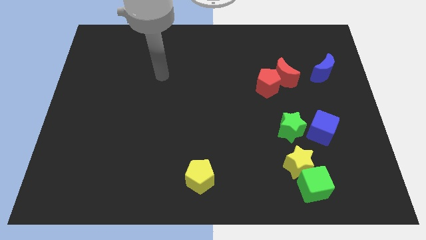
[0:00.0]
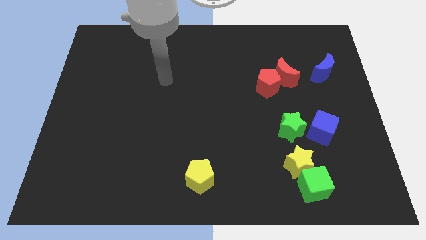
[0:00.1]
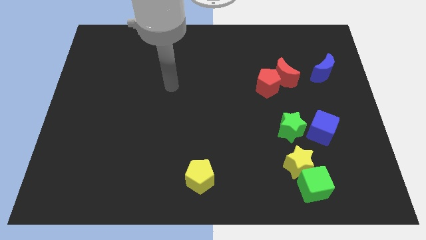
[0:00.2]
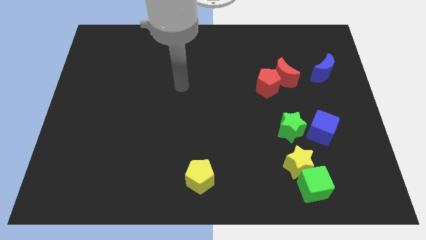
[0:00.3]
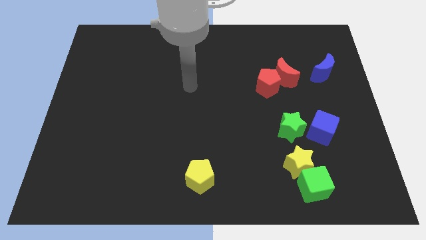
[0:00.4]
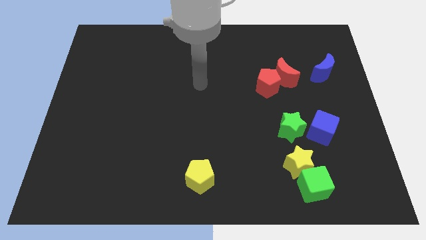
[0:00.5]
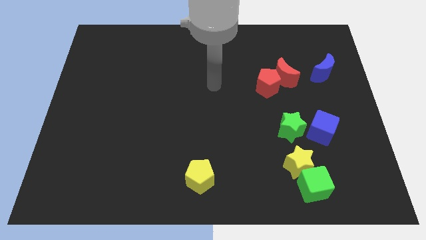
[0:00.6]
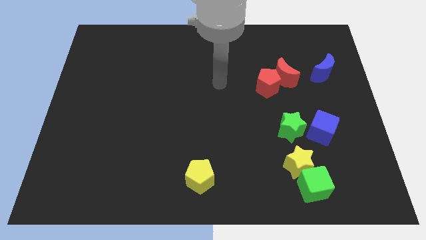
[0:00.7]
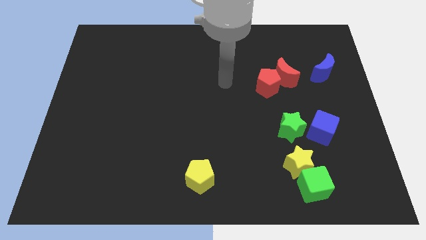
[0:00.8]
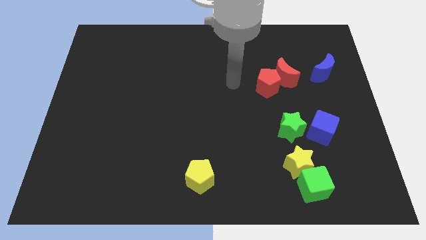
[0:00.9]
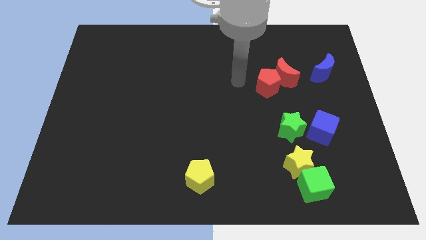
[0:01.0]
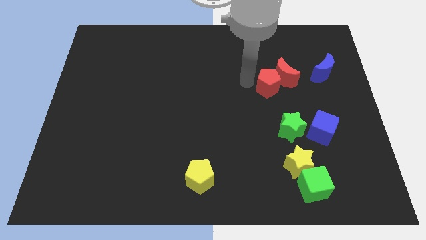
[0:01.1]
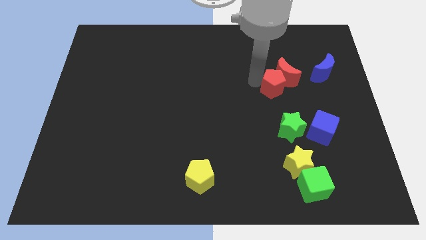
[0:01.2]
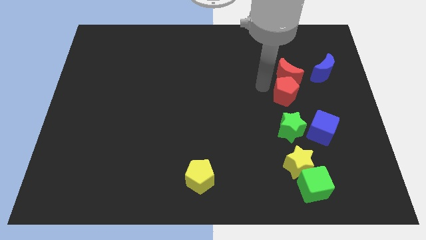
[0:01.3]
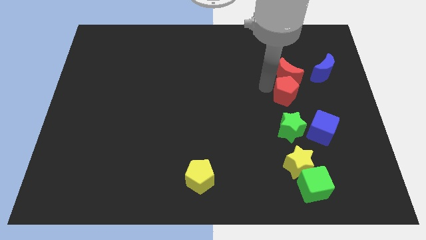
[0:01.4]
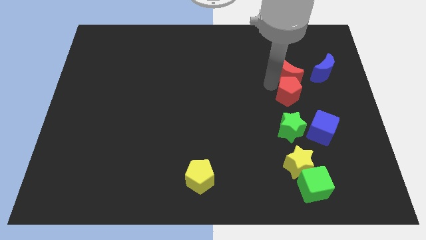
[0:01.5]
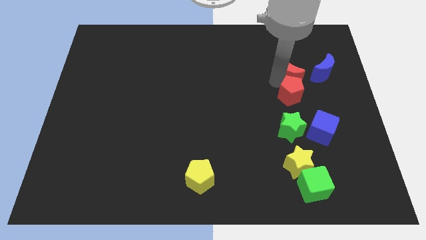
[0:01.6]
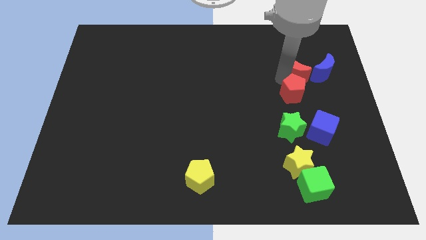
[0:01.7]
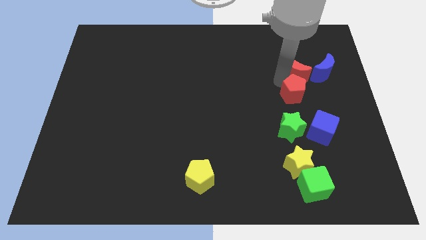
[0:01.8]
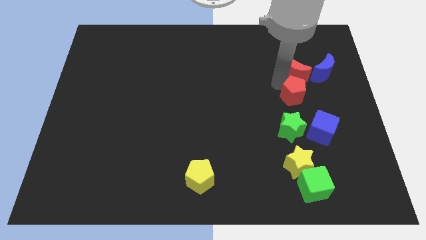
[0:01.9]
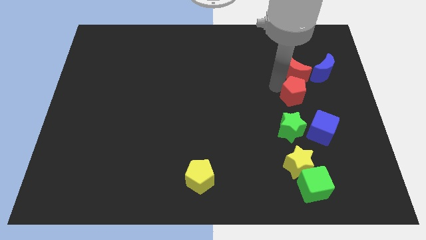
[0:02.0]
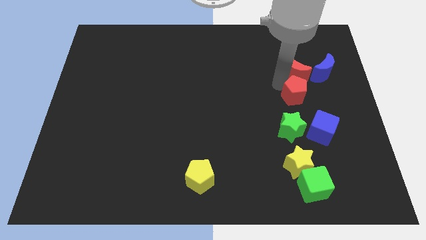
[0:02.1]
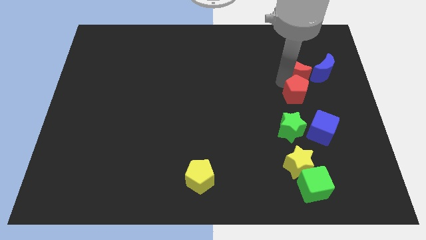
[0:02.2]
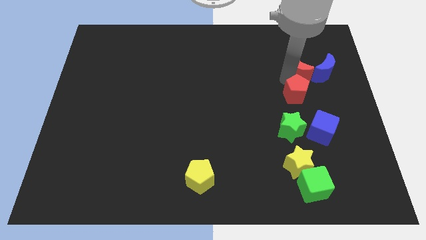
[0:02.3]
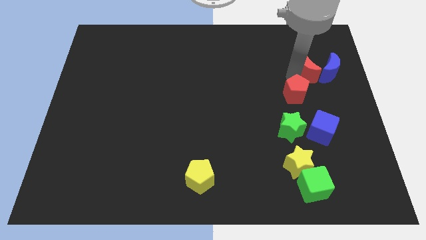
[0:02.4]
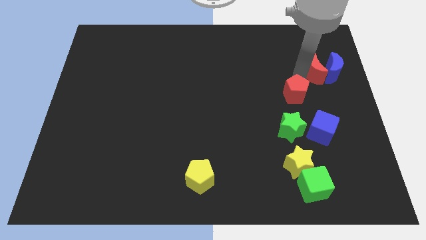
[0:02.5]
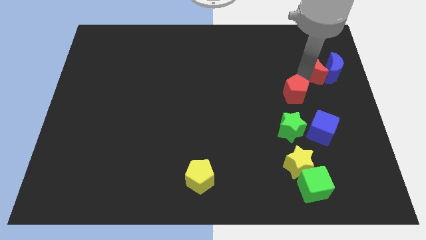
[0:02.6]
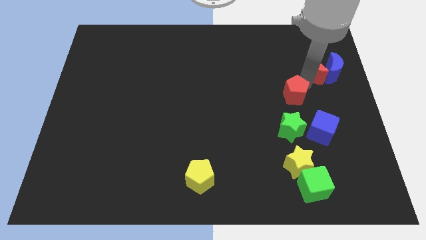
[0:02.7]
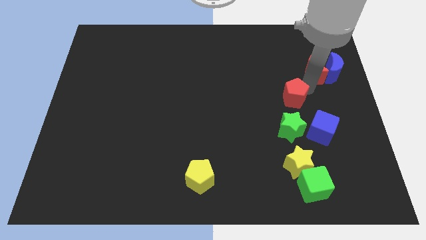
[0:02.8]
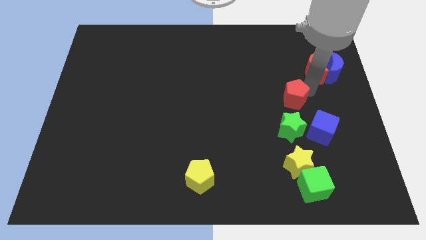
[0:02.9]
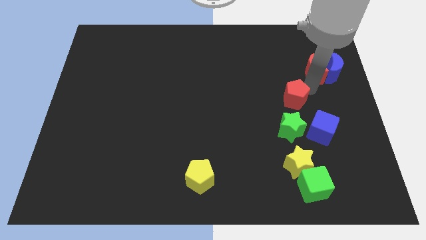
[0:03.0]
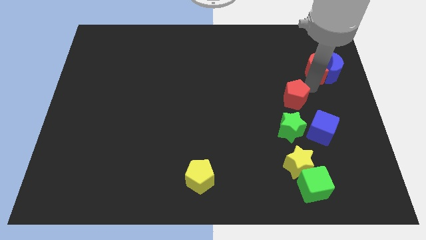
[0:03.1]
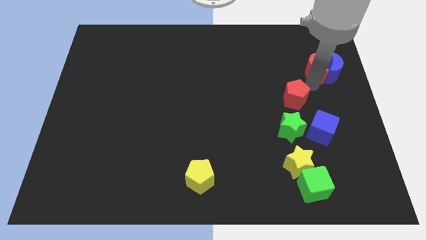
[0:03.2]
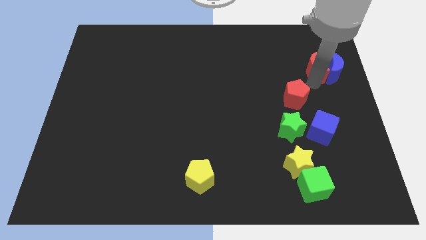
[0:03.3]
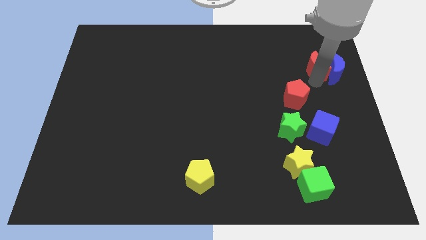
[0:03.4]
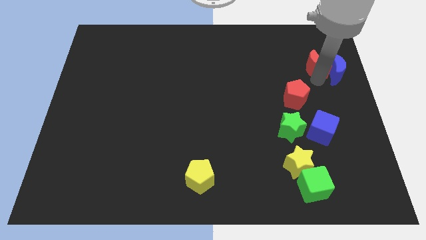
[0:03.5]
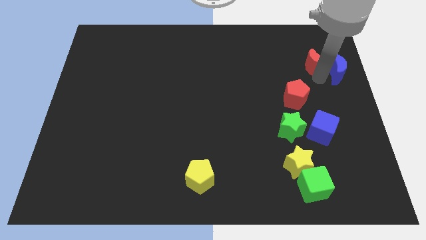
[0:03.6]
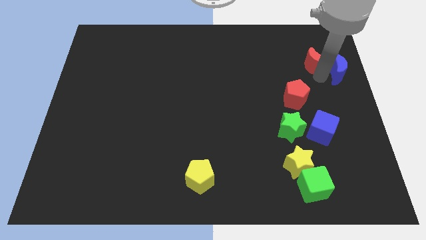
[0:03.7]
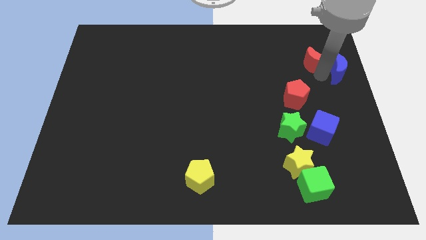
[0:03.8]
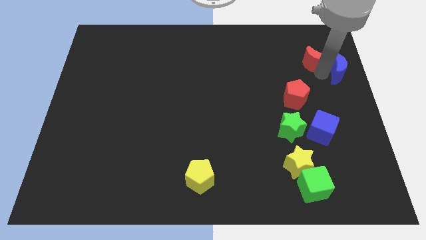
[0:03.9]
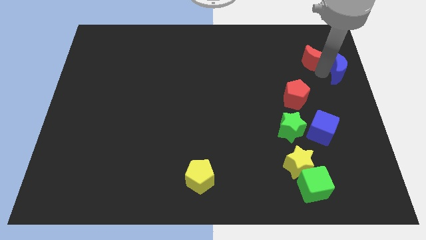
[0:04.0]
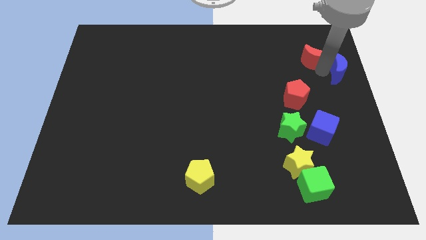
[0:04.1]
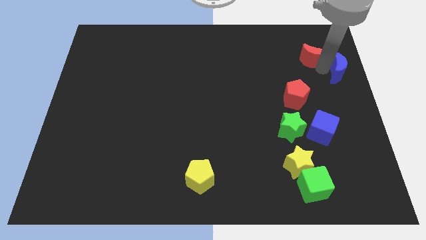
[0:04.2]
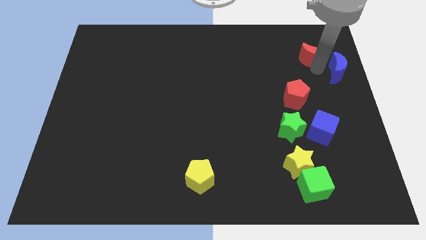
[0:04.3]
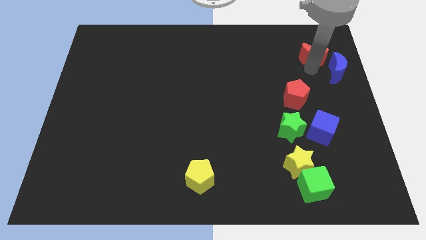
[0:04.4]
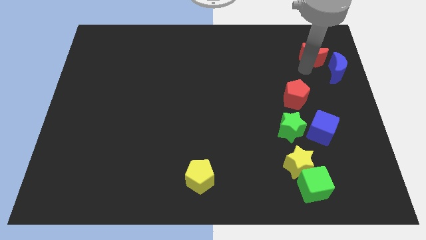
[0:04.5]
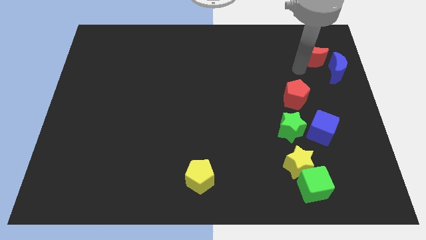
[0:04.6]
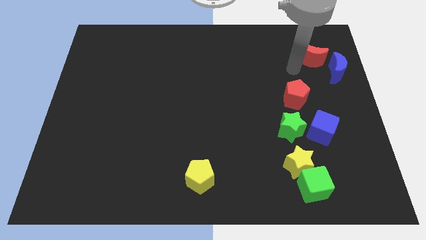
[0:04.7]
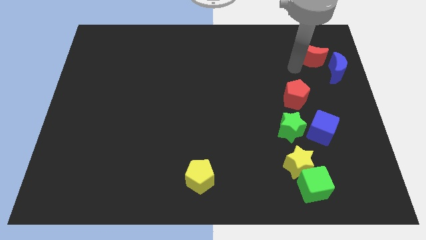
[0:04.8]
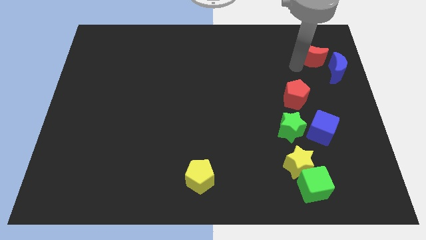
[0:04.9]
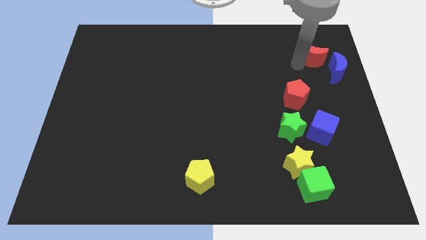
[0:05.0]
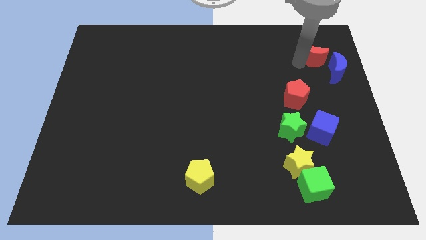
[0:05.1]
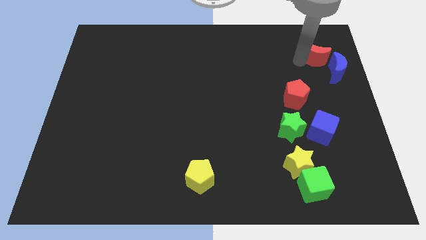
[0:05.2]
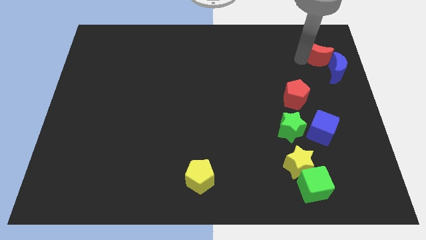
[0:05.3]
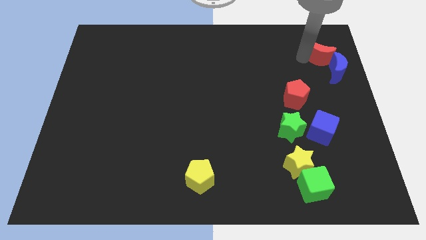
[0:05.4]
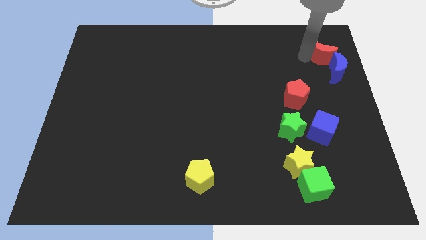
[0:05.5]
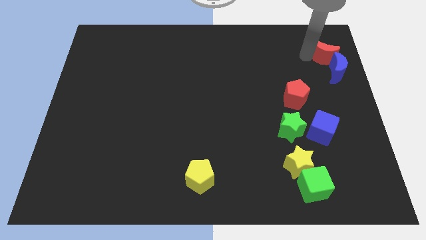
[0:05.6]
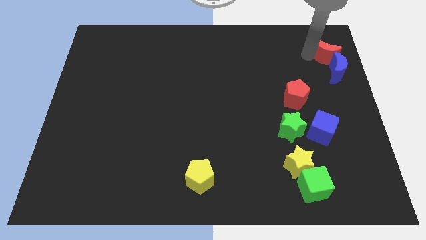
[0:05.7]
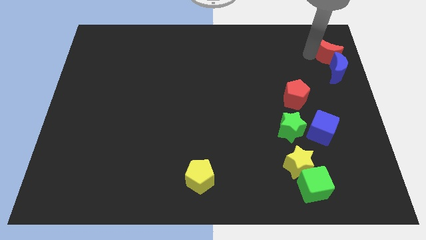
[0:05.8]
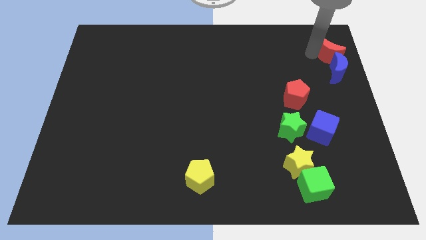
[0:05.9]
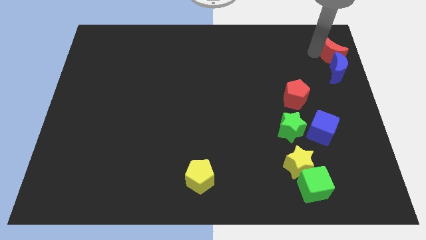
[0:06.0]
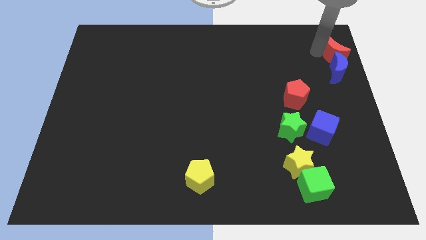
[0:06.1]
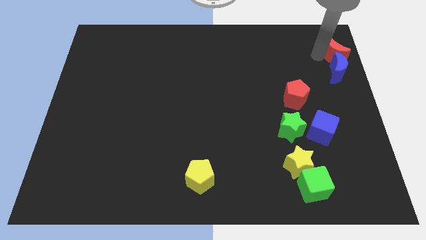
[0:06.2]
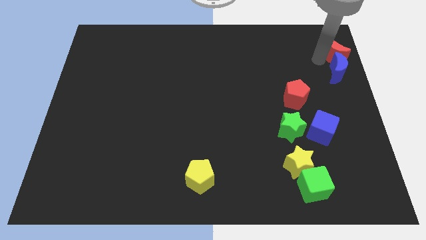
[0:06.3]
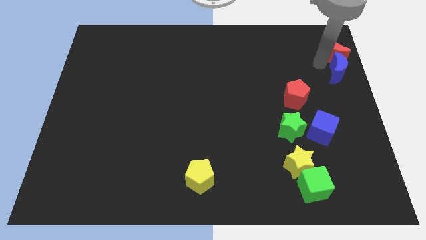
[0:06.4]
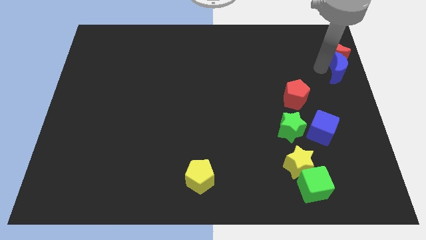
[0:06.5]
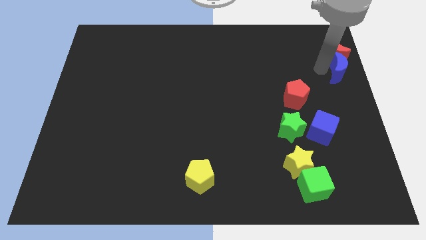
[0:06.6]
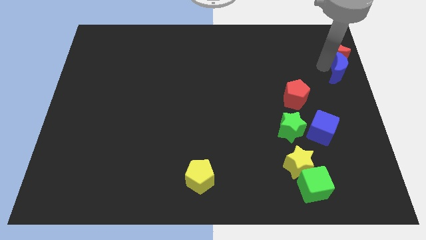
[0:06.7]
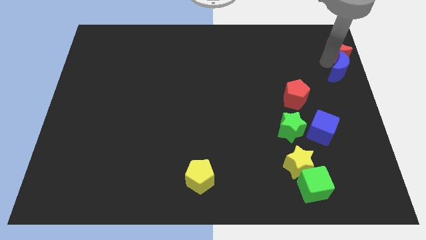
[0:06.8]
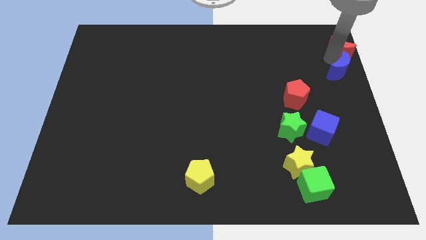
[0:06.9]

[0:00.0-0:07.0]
push the red moon to the top right corner
